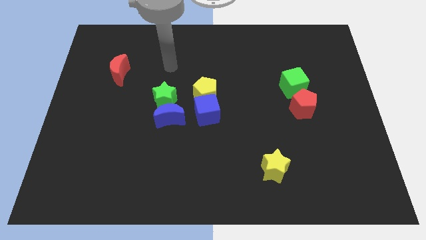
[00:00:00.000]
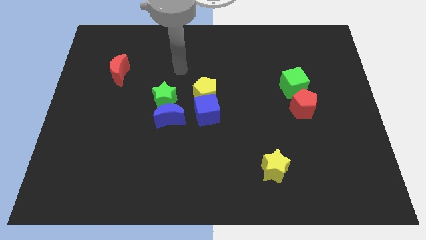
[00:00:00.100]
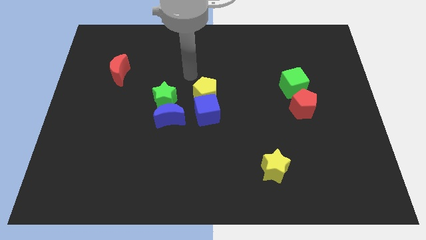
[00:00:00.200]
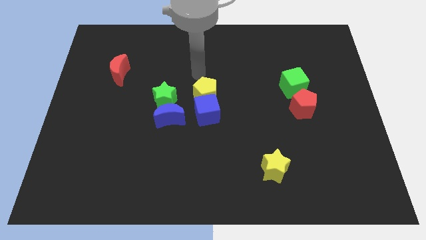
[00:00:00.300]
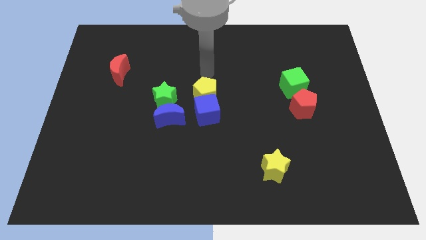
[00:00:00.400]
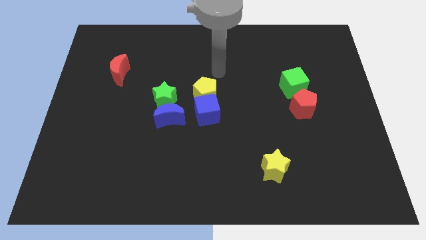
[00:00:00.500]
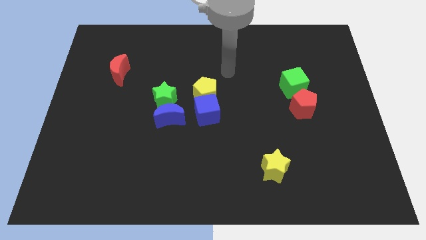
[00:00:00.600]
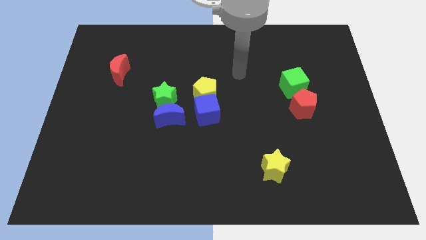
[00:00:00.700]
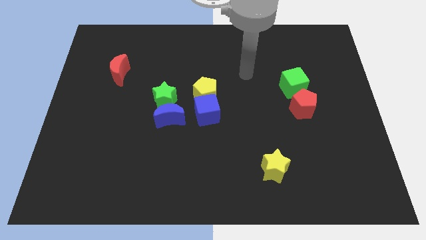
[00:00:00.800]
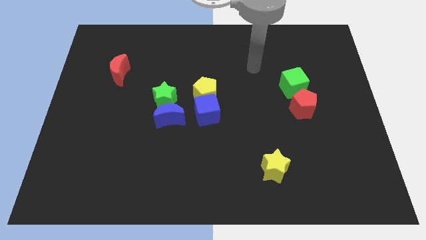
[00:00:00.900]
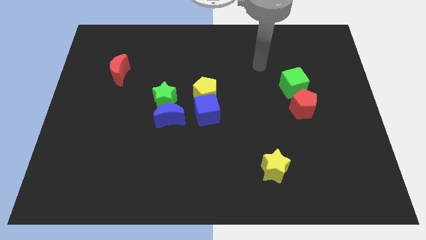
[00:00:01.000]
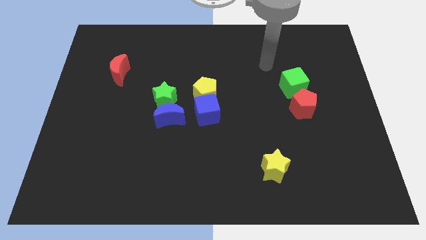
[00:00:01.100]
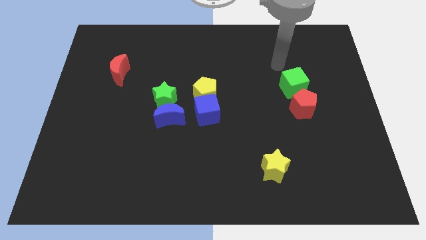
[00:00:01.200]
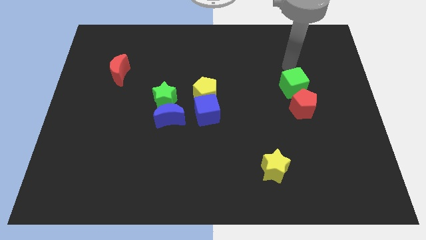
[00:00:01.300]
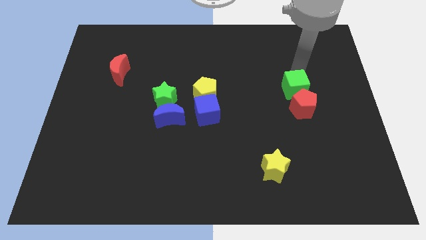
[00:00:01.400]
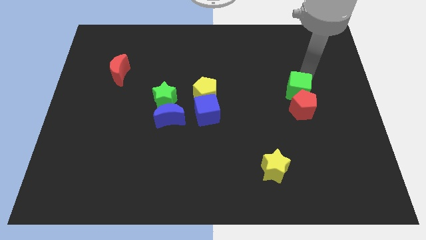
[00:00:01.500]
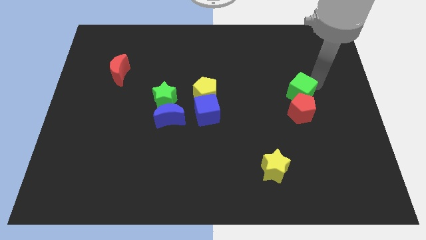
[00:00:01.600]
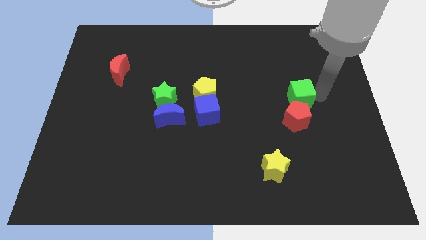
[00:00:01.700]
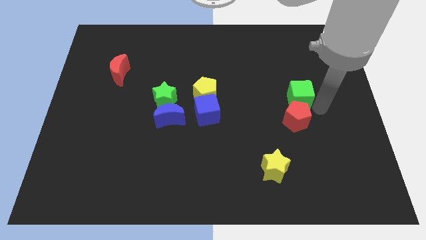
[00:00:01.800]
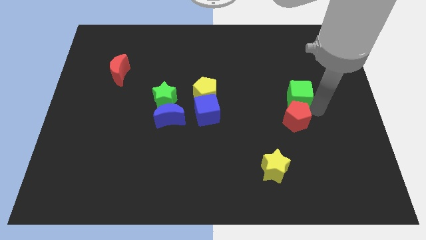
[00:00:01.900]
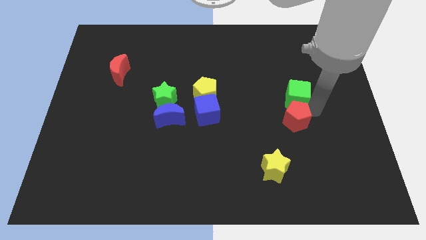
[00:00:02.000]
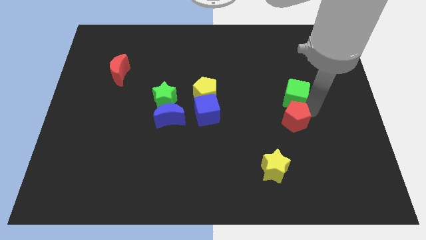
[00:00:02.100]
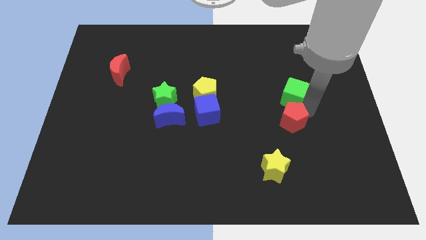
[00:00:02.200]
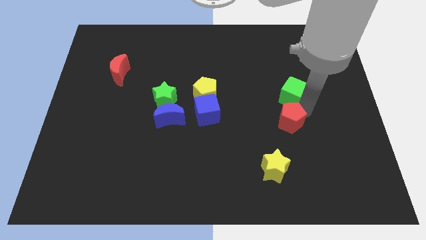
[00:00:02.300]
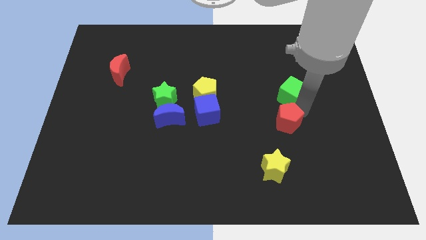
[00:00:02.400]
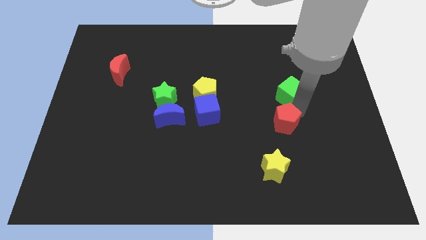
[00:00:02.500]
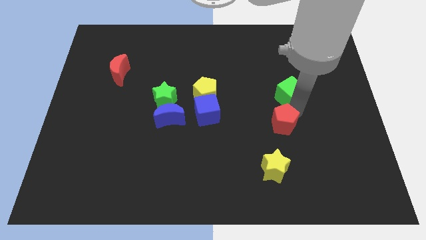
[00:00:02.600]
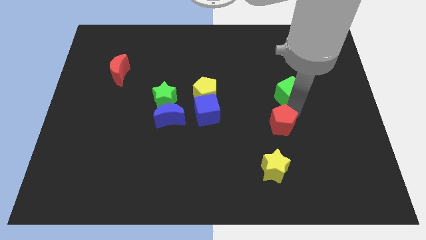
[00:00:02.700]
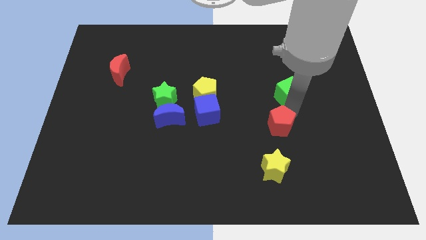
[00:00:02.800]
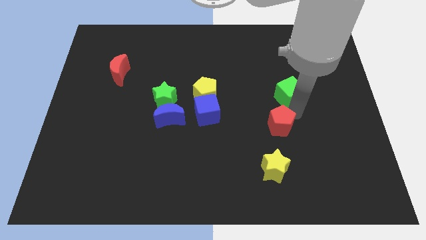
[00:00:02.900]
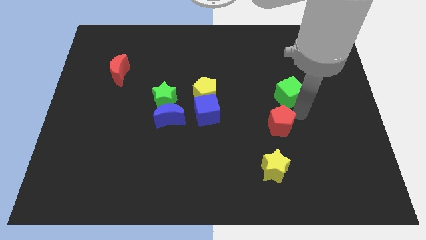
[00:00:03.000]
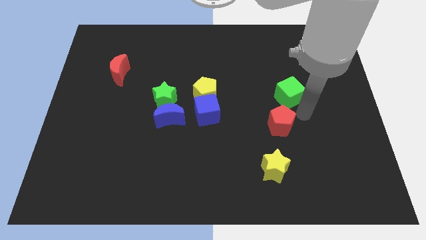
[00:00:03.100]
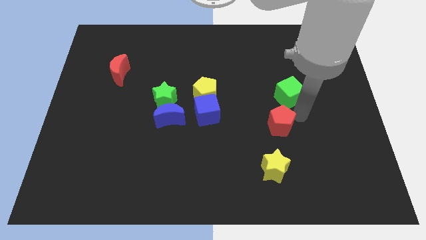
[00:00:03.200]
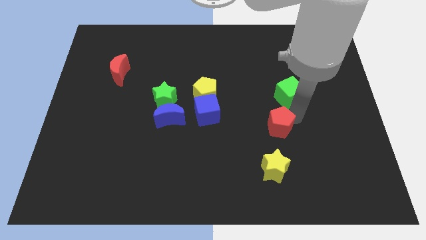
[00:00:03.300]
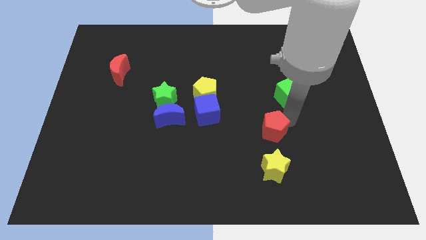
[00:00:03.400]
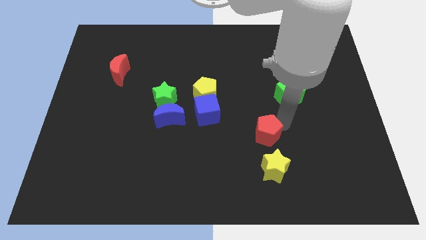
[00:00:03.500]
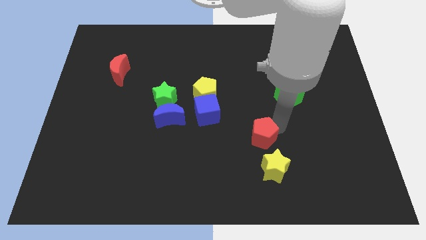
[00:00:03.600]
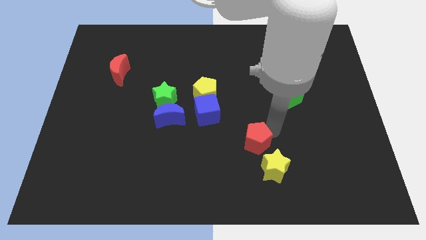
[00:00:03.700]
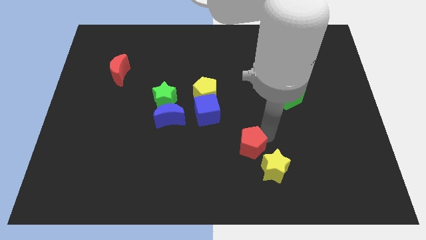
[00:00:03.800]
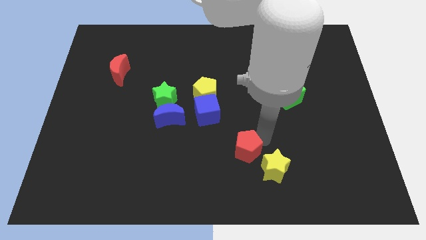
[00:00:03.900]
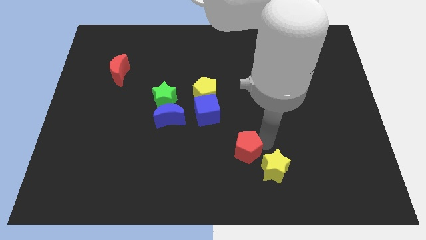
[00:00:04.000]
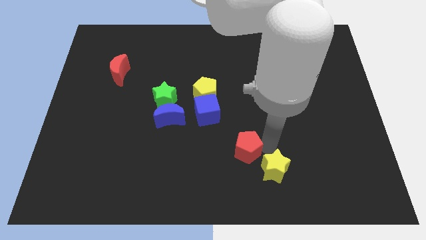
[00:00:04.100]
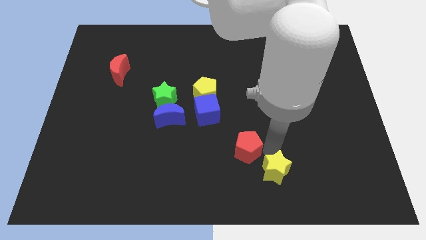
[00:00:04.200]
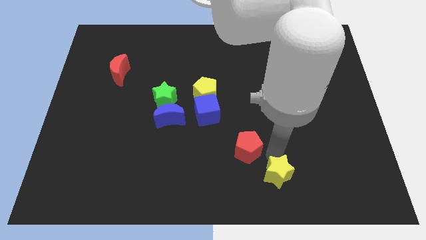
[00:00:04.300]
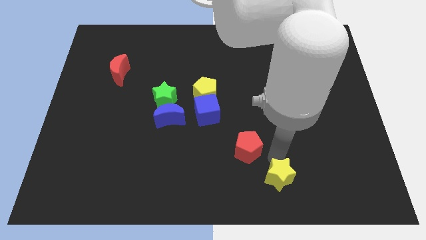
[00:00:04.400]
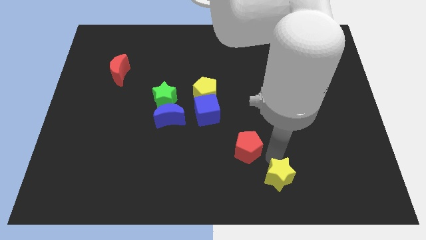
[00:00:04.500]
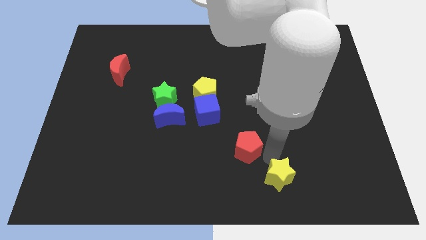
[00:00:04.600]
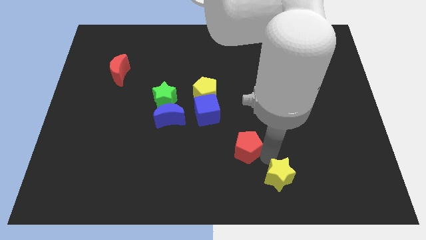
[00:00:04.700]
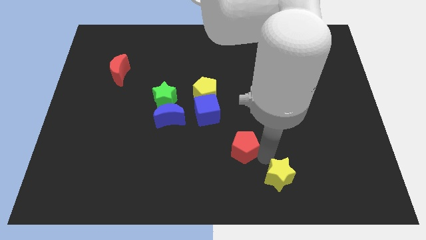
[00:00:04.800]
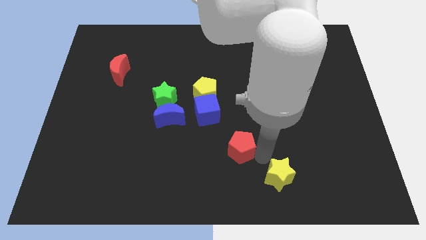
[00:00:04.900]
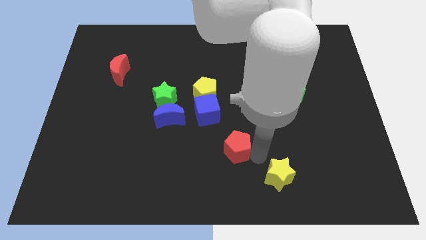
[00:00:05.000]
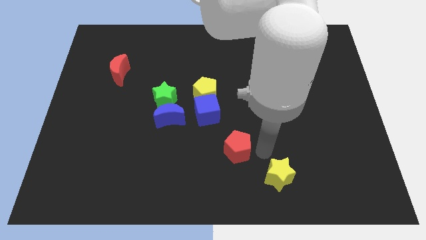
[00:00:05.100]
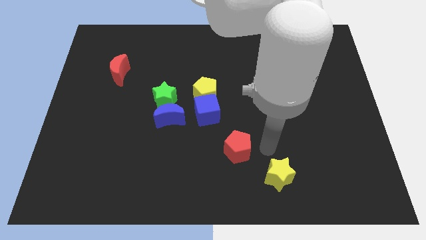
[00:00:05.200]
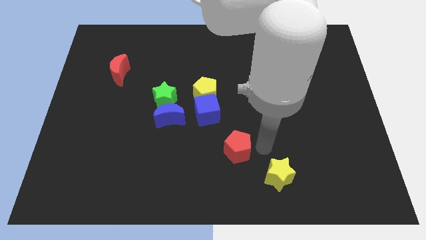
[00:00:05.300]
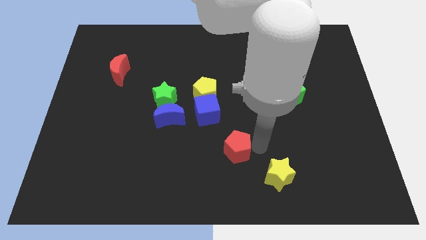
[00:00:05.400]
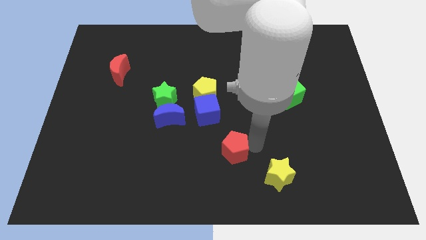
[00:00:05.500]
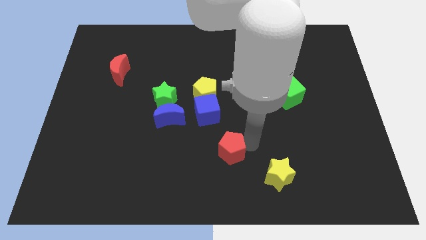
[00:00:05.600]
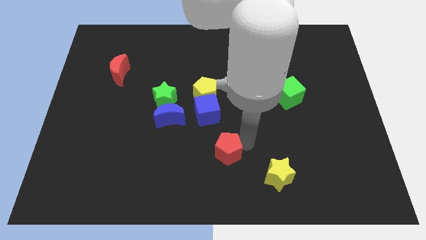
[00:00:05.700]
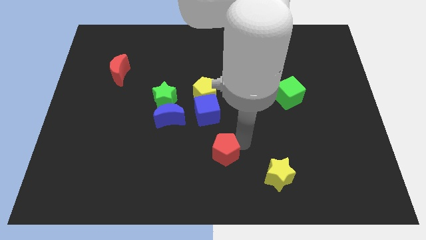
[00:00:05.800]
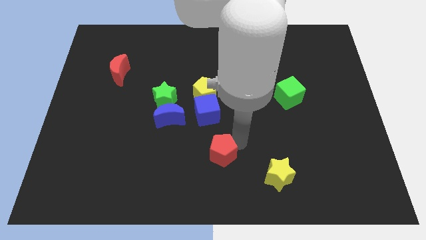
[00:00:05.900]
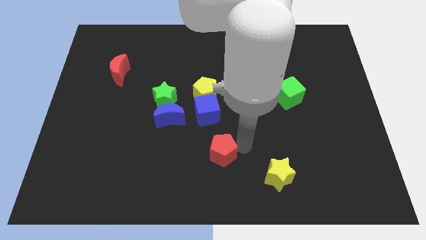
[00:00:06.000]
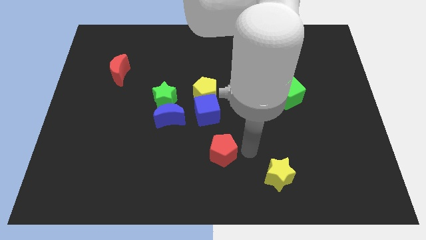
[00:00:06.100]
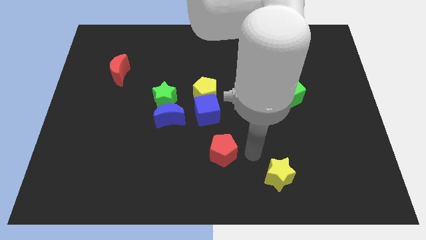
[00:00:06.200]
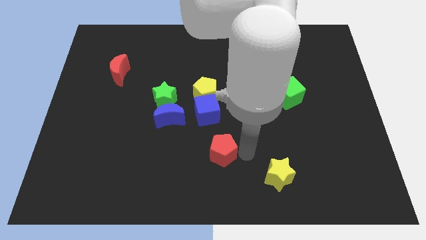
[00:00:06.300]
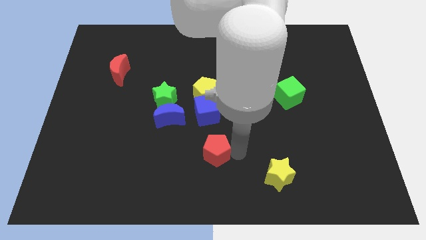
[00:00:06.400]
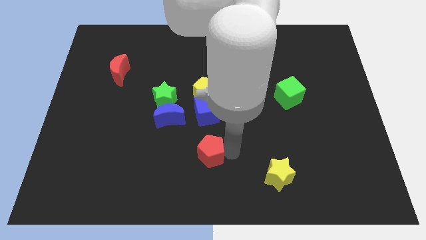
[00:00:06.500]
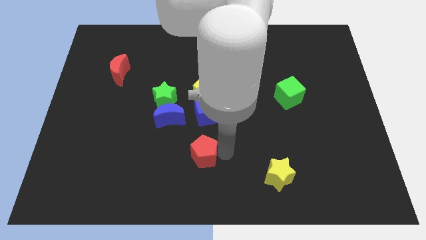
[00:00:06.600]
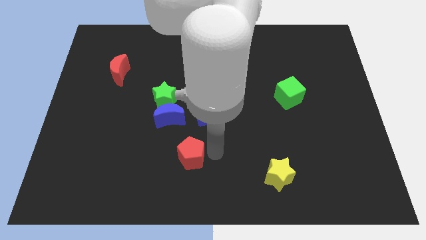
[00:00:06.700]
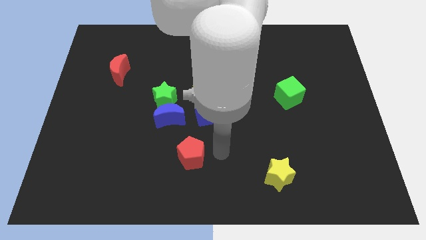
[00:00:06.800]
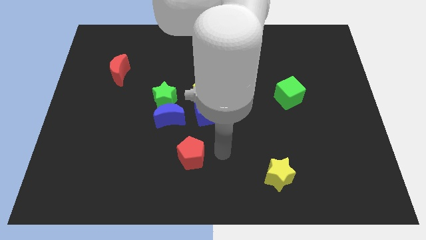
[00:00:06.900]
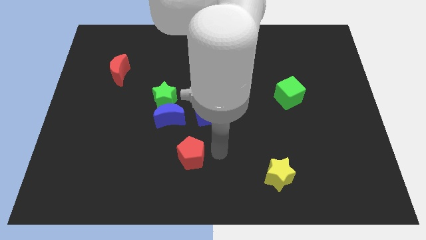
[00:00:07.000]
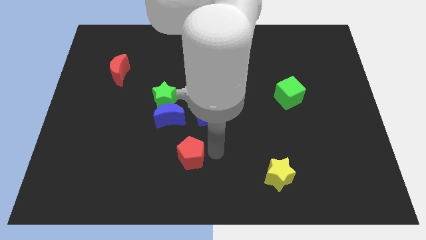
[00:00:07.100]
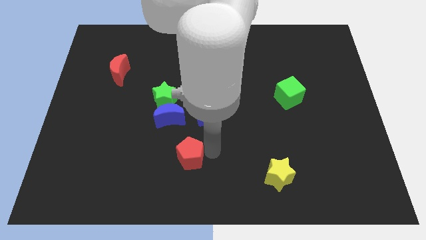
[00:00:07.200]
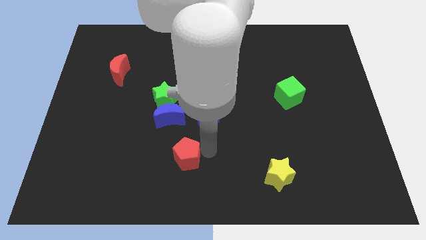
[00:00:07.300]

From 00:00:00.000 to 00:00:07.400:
put the red pentagon below the blue moon
